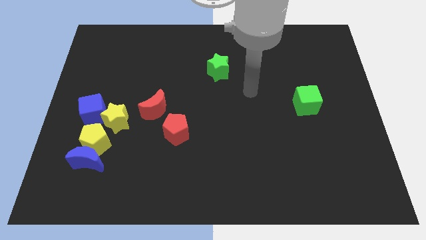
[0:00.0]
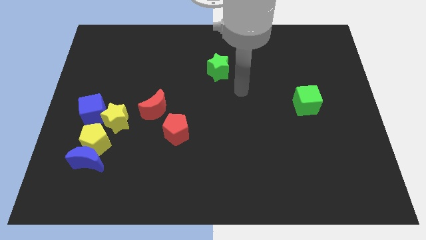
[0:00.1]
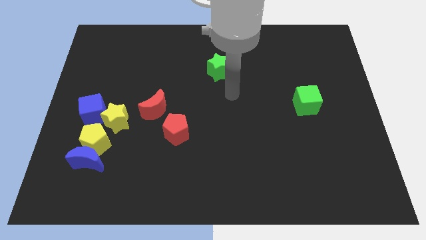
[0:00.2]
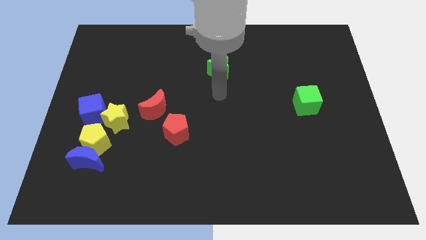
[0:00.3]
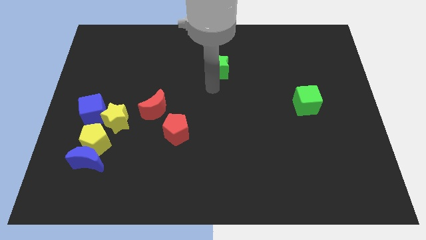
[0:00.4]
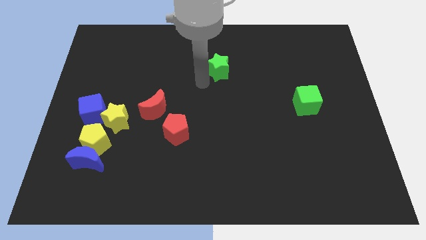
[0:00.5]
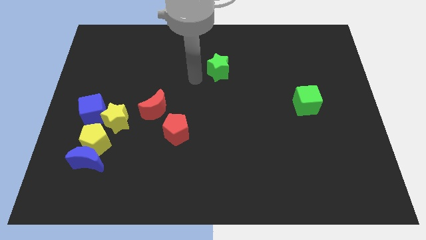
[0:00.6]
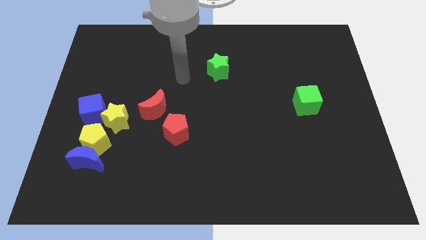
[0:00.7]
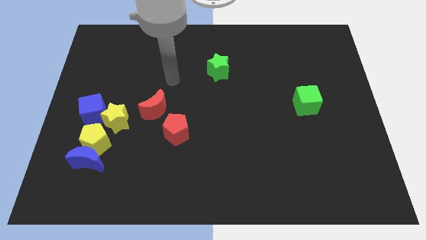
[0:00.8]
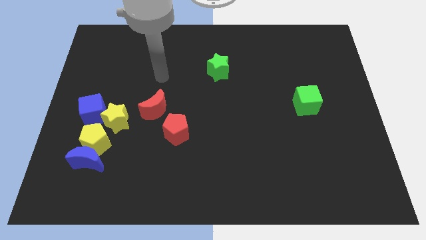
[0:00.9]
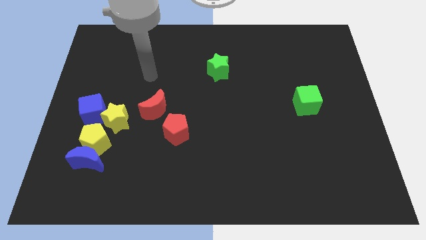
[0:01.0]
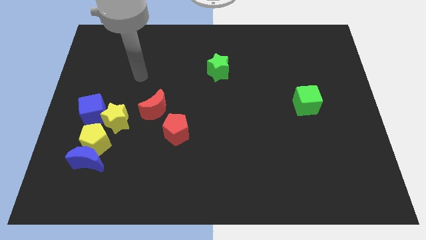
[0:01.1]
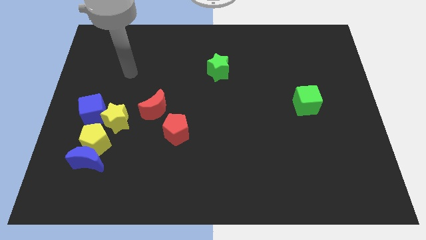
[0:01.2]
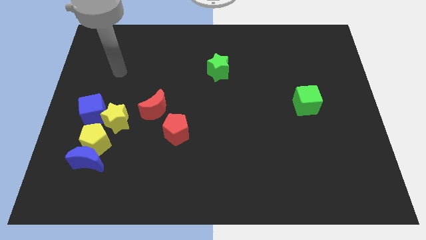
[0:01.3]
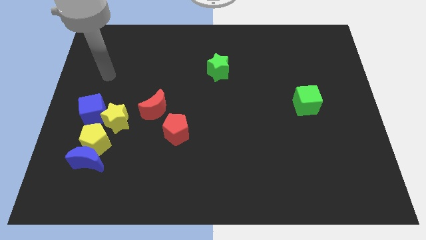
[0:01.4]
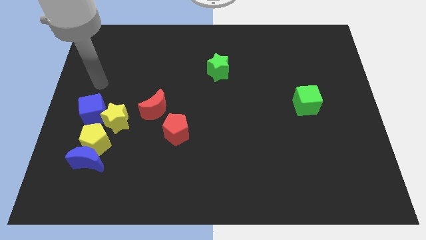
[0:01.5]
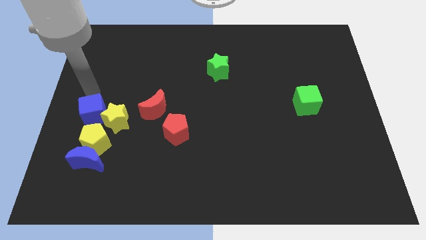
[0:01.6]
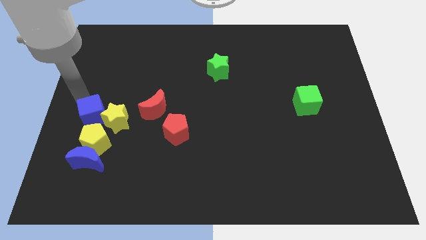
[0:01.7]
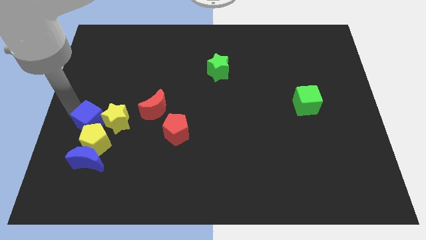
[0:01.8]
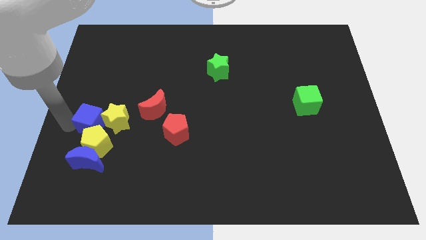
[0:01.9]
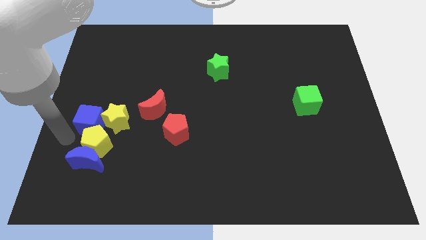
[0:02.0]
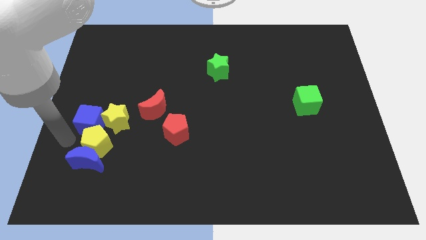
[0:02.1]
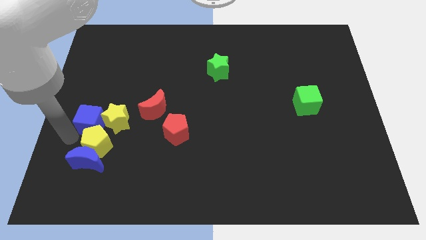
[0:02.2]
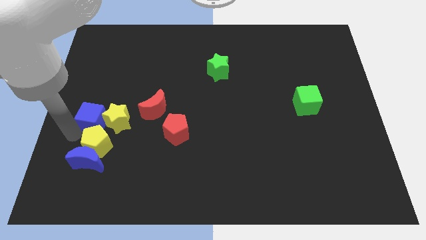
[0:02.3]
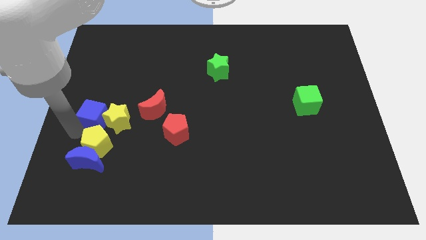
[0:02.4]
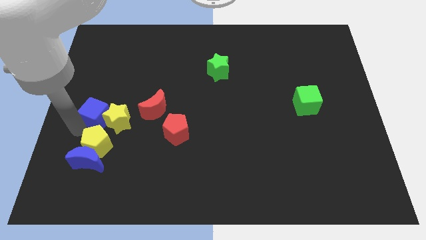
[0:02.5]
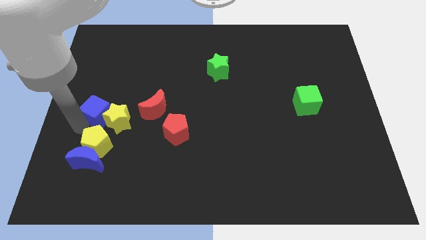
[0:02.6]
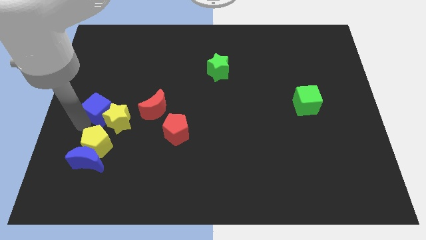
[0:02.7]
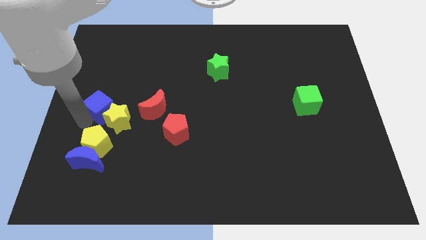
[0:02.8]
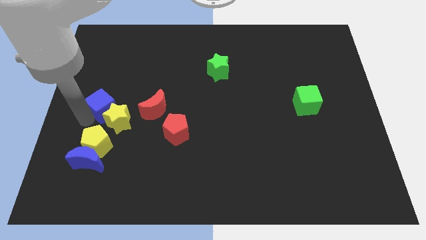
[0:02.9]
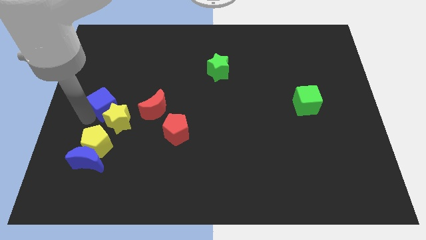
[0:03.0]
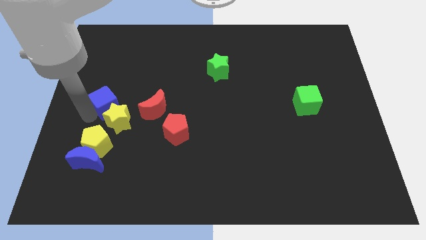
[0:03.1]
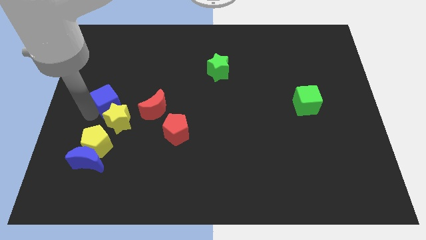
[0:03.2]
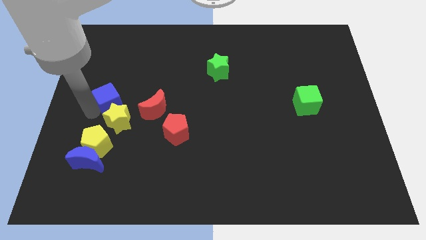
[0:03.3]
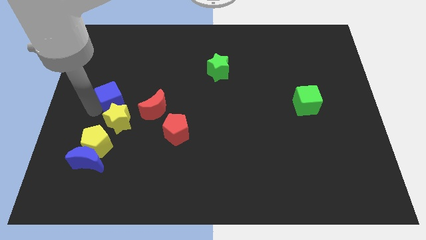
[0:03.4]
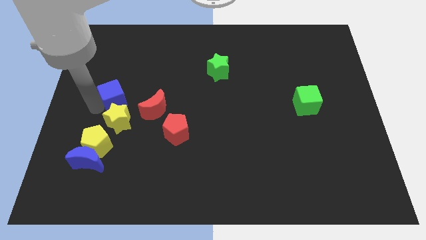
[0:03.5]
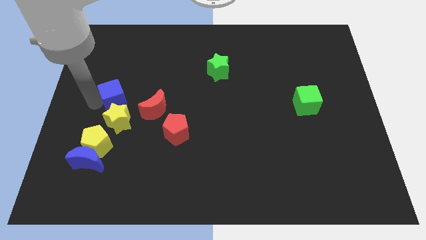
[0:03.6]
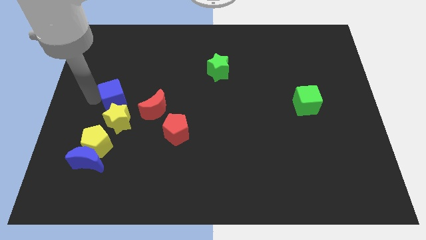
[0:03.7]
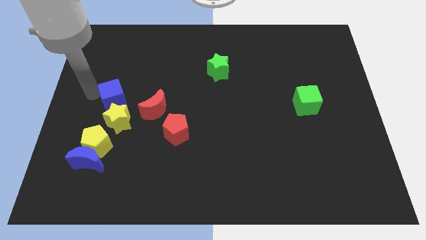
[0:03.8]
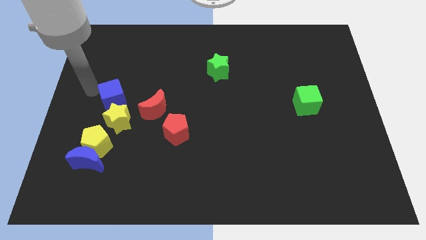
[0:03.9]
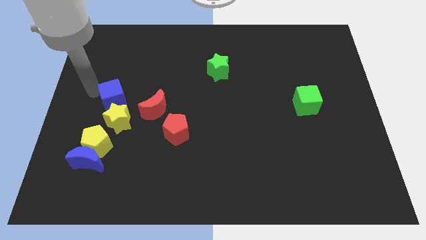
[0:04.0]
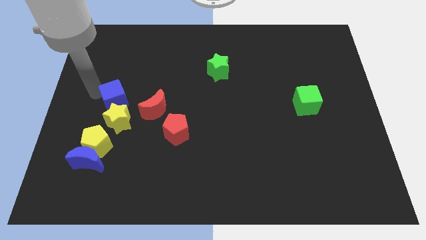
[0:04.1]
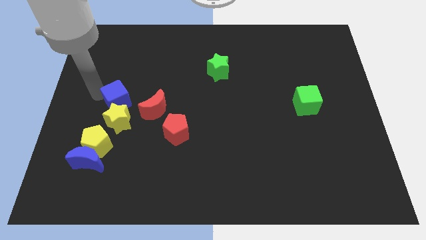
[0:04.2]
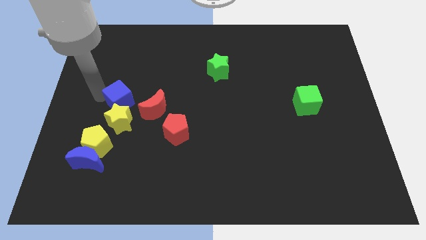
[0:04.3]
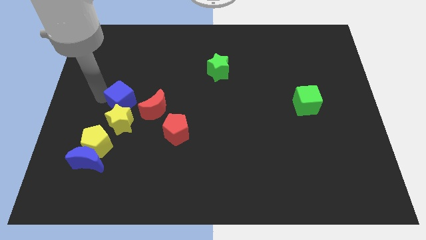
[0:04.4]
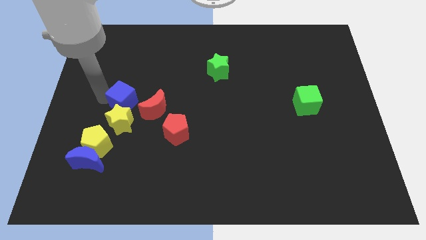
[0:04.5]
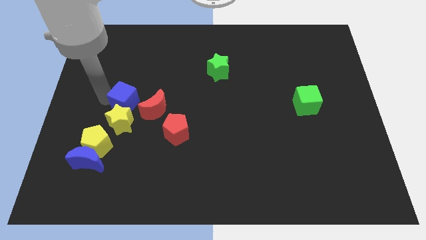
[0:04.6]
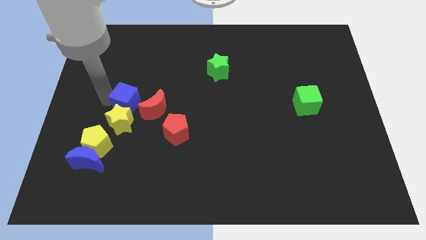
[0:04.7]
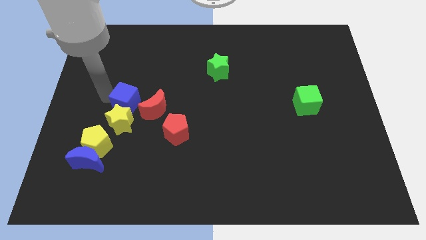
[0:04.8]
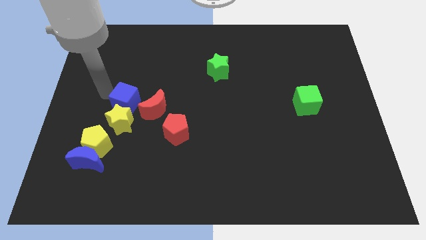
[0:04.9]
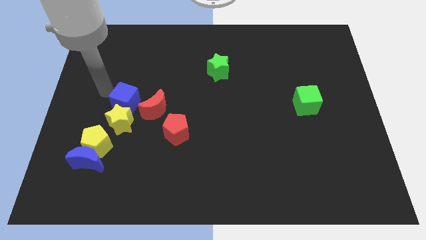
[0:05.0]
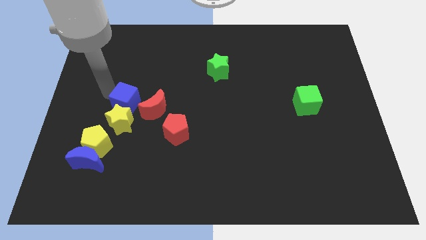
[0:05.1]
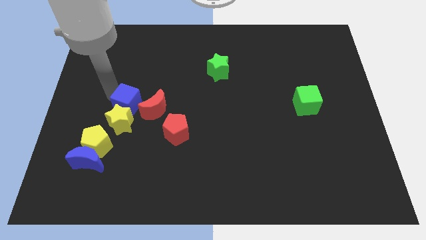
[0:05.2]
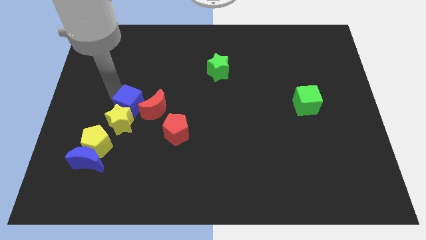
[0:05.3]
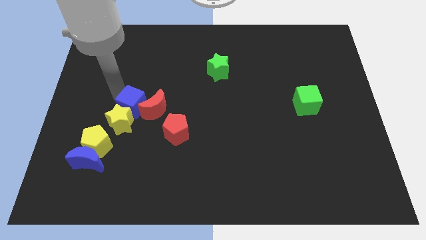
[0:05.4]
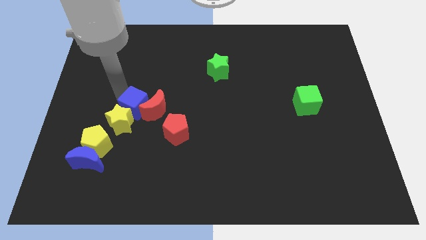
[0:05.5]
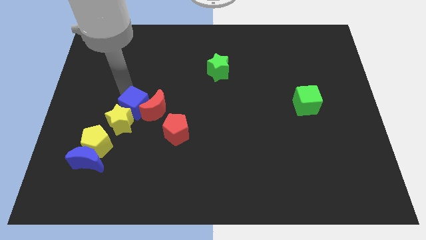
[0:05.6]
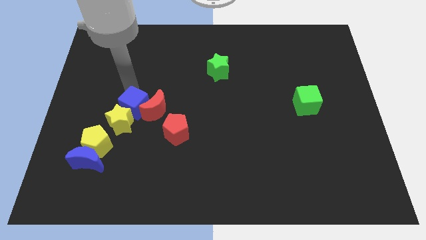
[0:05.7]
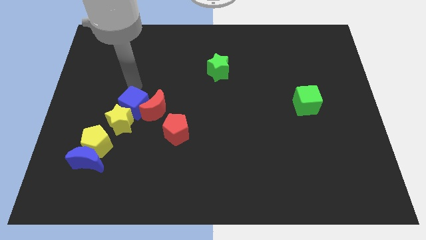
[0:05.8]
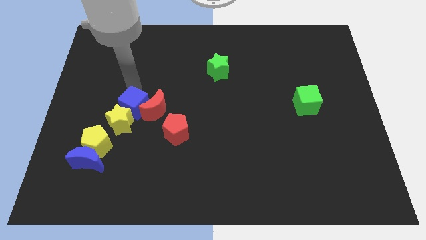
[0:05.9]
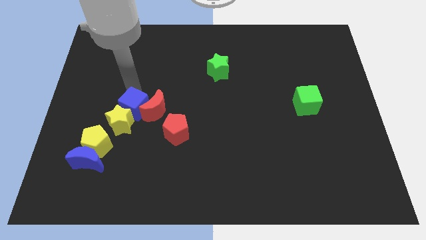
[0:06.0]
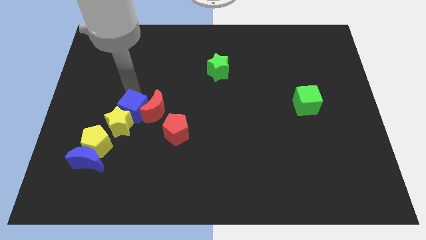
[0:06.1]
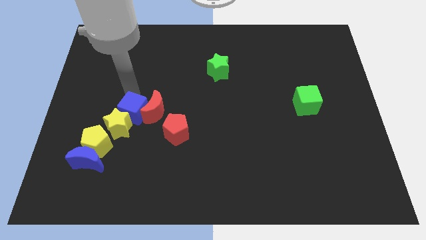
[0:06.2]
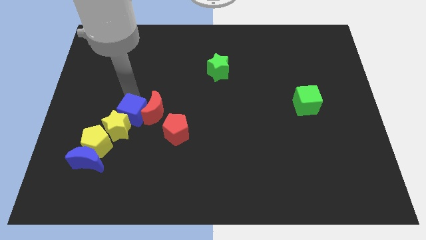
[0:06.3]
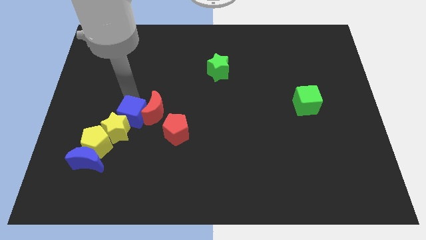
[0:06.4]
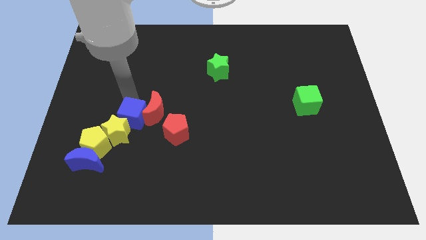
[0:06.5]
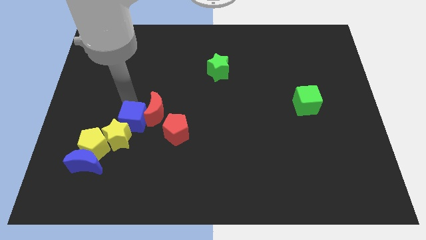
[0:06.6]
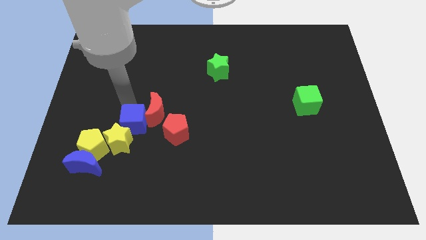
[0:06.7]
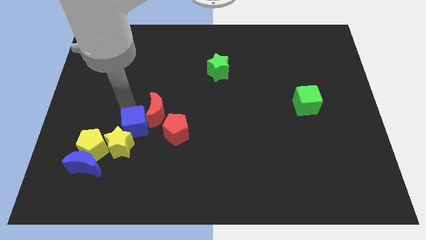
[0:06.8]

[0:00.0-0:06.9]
push the blue cube below the red moon

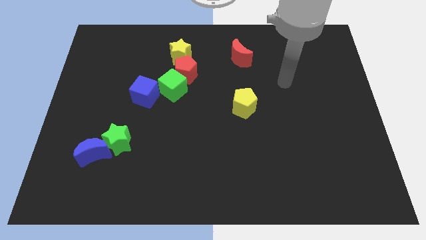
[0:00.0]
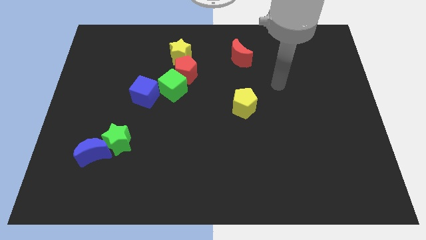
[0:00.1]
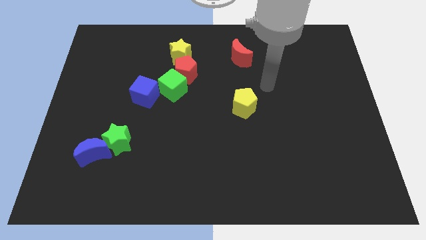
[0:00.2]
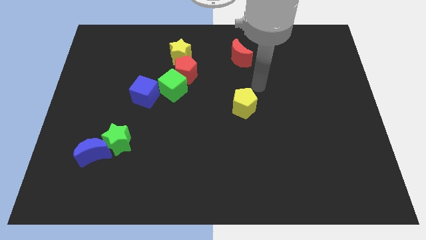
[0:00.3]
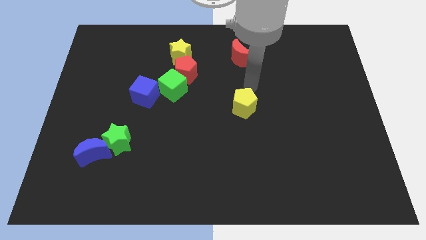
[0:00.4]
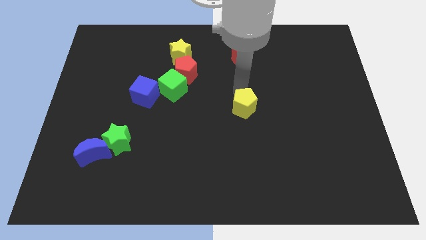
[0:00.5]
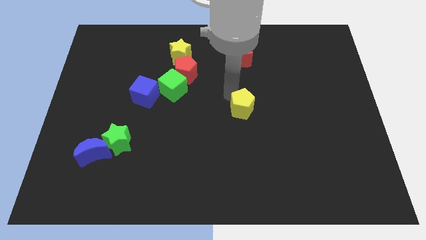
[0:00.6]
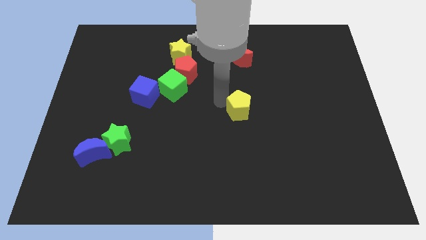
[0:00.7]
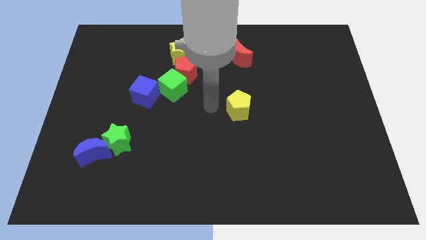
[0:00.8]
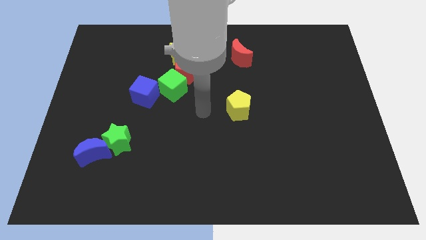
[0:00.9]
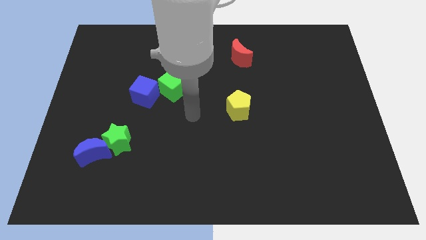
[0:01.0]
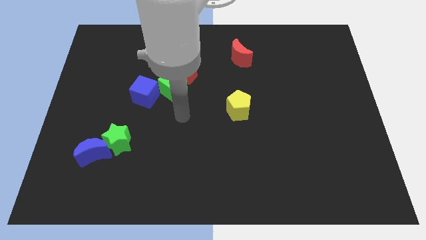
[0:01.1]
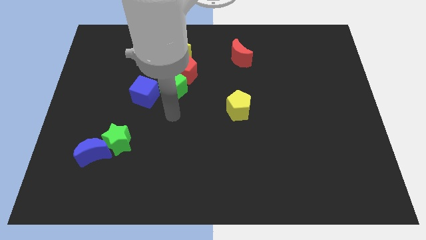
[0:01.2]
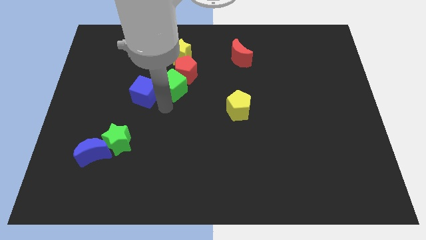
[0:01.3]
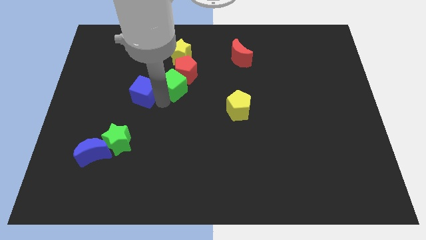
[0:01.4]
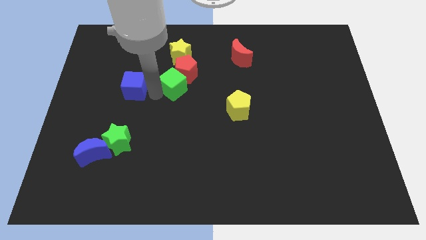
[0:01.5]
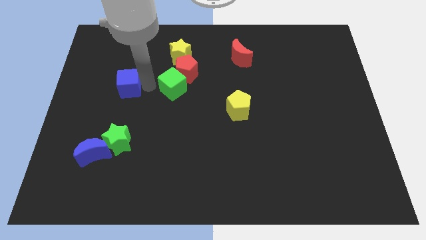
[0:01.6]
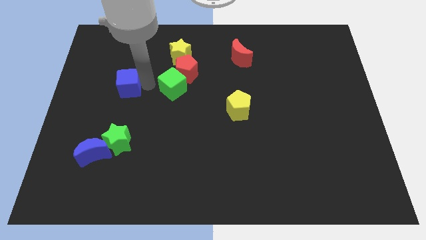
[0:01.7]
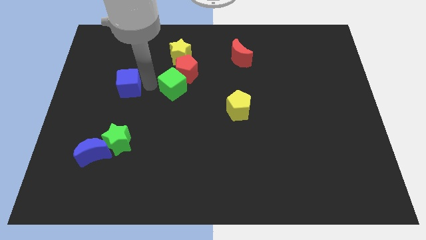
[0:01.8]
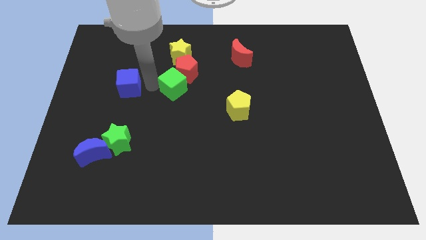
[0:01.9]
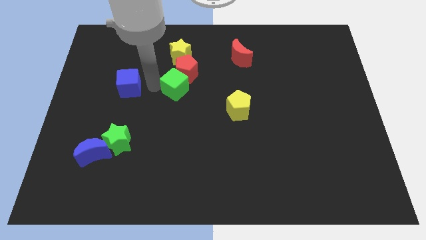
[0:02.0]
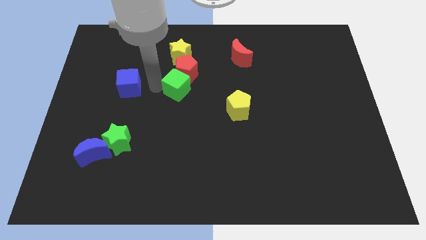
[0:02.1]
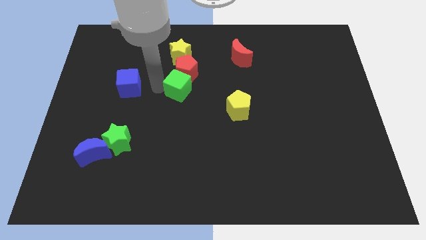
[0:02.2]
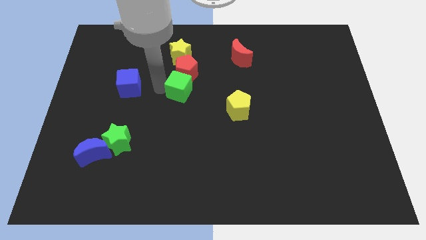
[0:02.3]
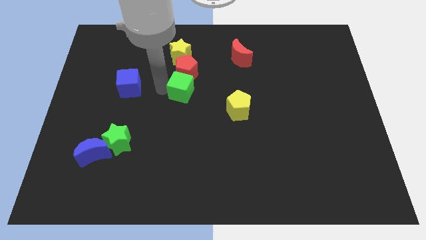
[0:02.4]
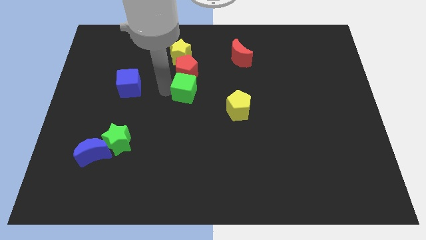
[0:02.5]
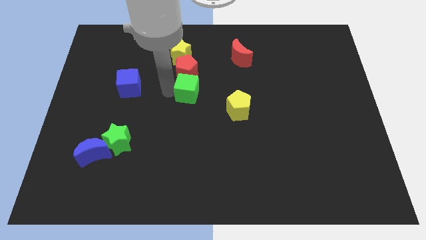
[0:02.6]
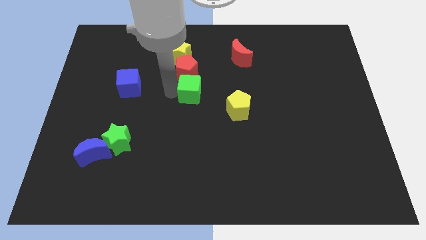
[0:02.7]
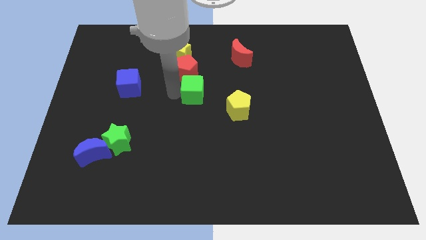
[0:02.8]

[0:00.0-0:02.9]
push the green cube diagonally up and to the left of the yellow pentagon
